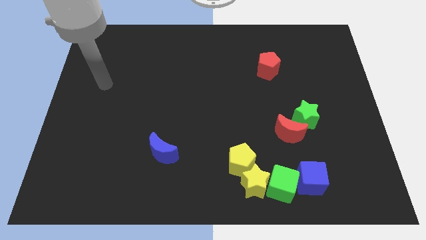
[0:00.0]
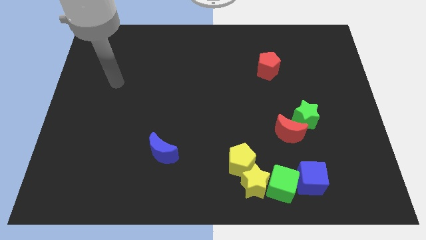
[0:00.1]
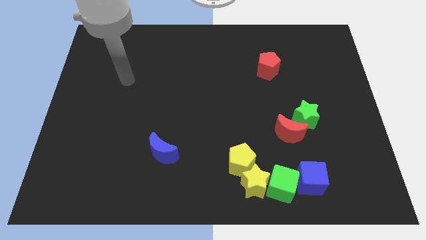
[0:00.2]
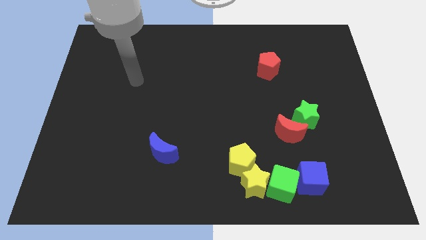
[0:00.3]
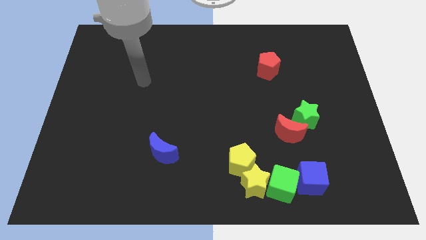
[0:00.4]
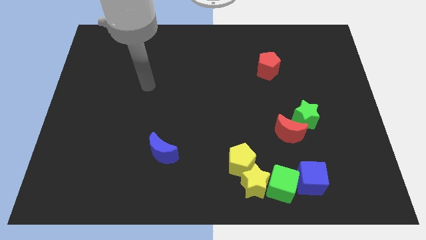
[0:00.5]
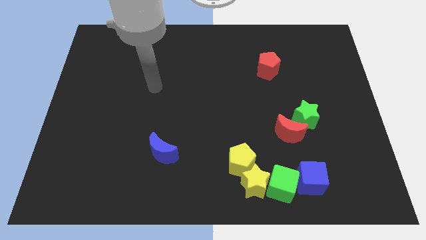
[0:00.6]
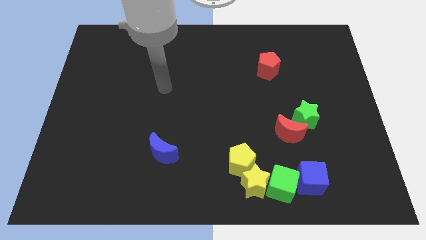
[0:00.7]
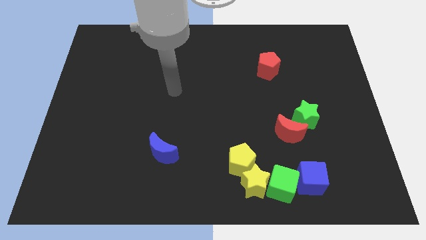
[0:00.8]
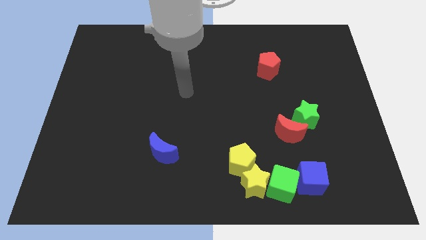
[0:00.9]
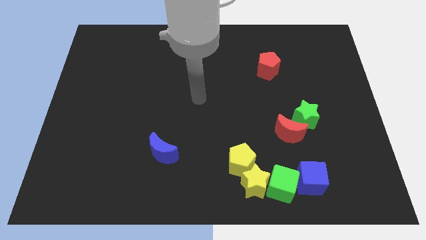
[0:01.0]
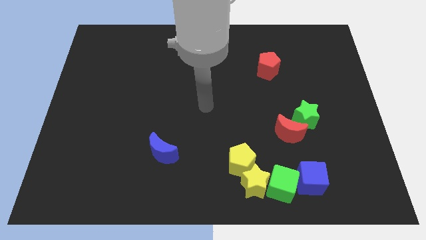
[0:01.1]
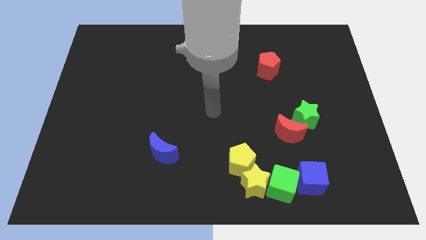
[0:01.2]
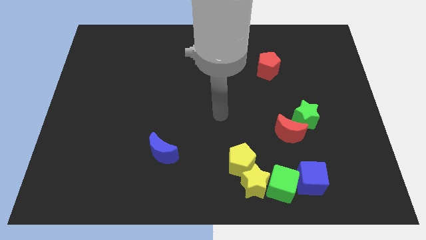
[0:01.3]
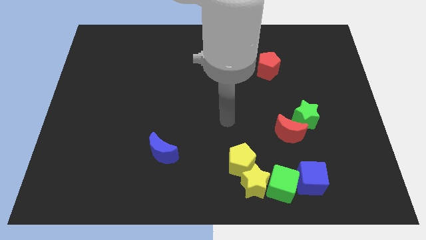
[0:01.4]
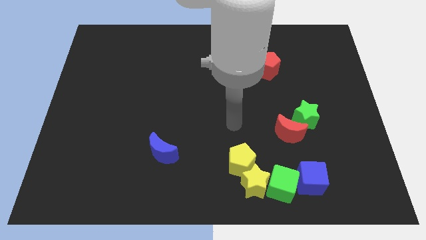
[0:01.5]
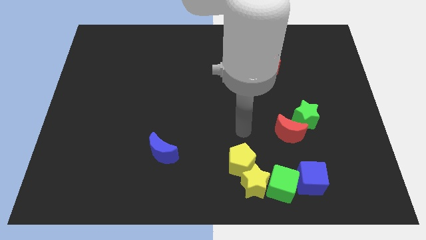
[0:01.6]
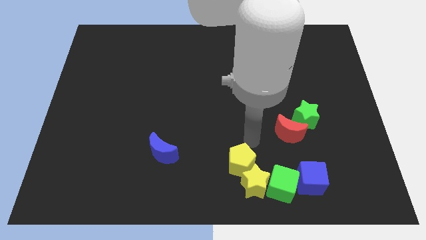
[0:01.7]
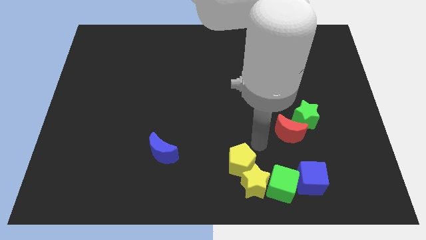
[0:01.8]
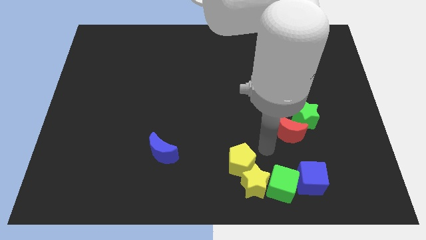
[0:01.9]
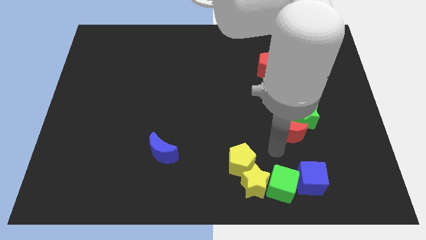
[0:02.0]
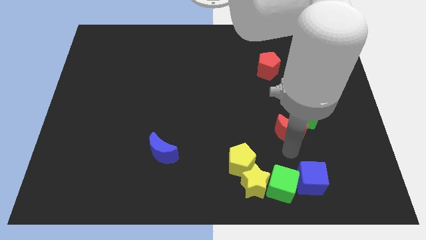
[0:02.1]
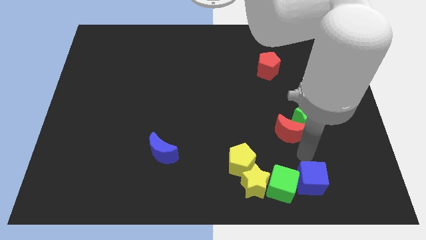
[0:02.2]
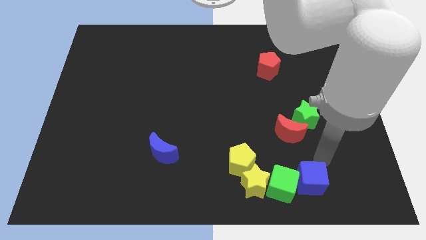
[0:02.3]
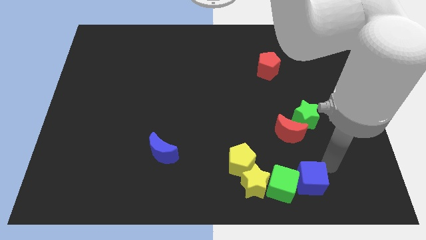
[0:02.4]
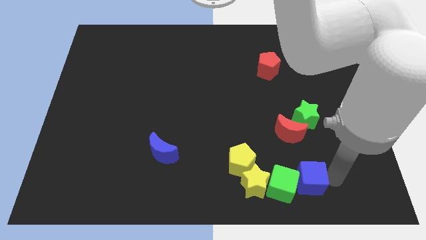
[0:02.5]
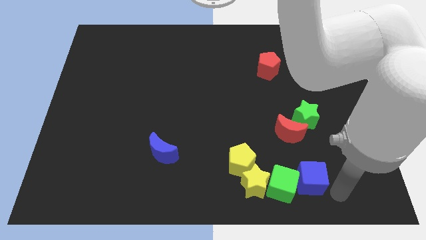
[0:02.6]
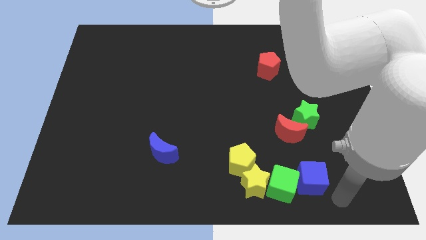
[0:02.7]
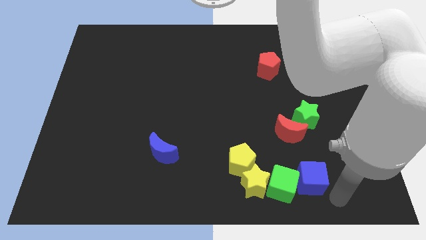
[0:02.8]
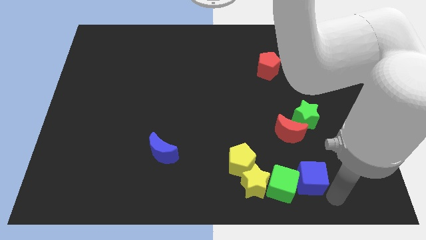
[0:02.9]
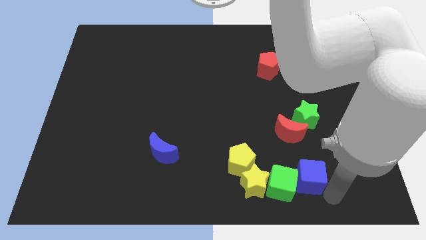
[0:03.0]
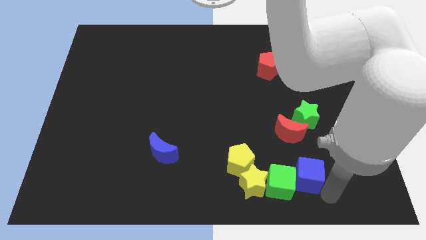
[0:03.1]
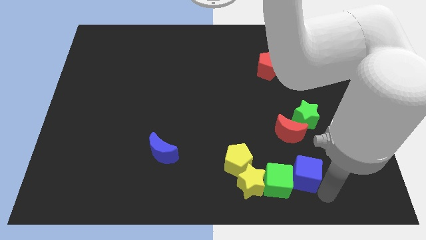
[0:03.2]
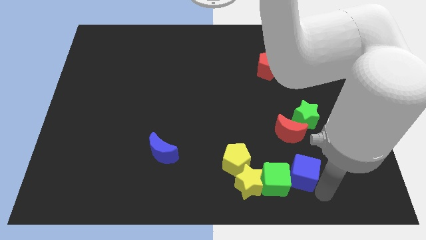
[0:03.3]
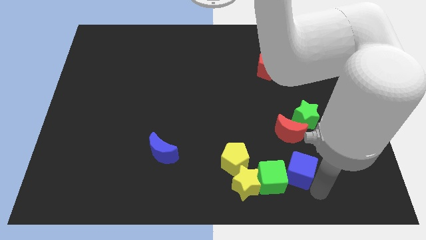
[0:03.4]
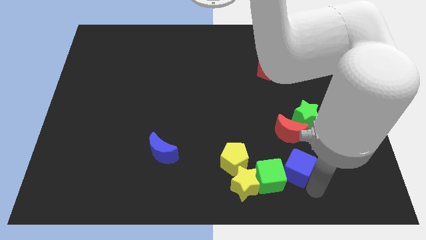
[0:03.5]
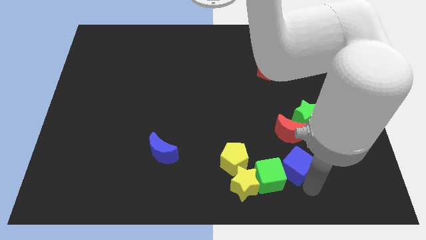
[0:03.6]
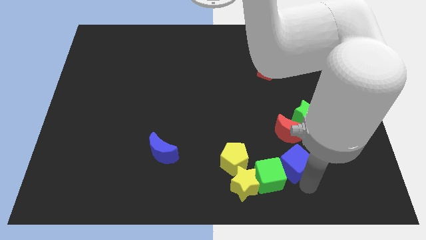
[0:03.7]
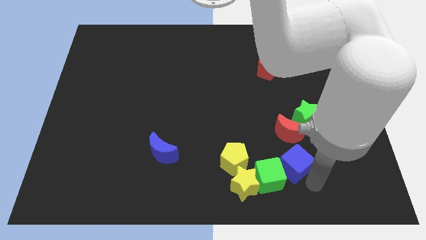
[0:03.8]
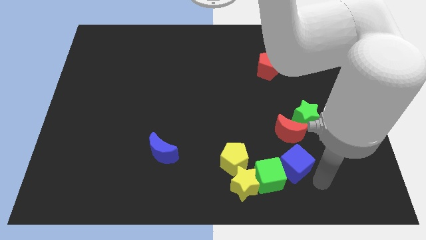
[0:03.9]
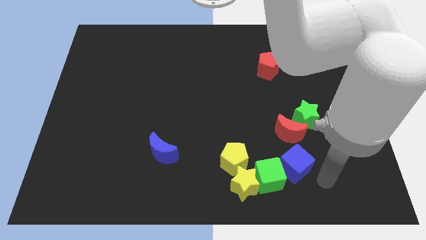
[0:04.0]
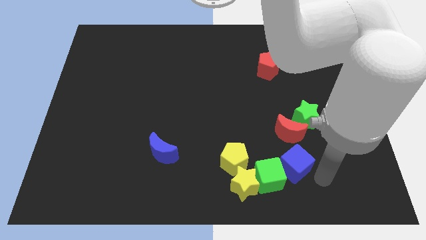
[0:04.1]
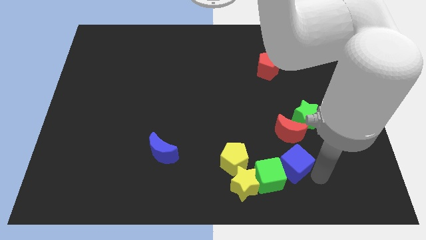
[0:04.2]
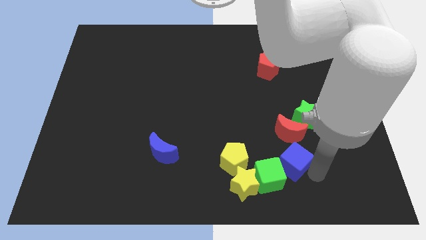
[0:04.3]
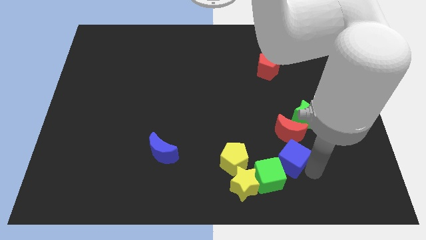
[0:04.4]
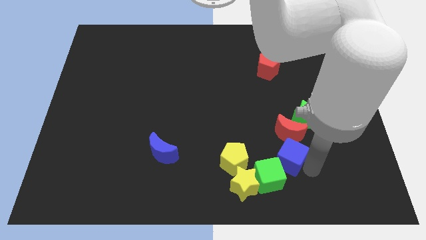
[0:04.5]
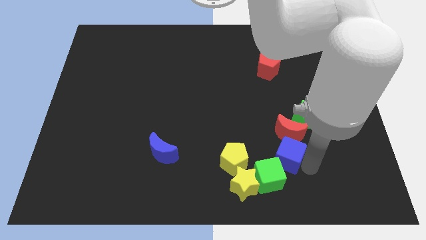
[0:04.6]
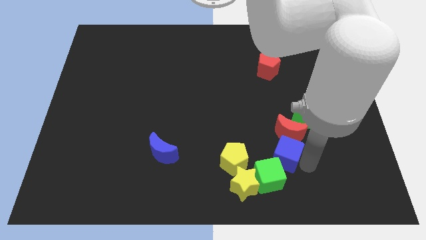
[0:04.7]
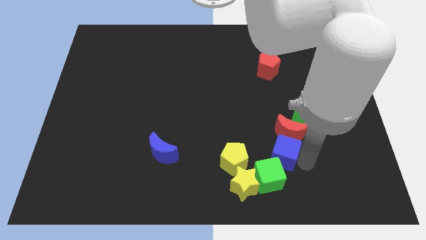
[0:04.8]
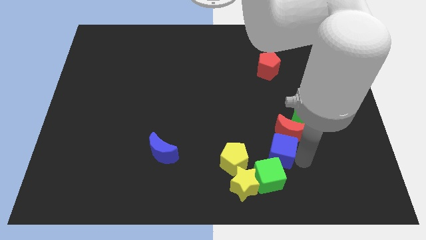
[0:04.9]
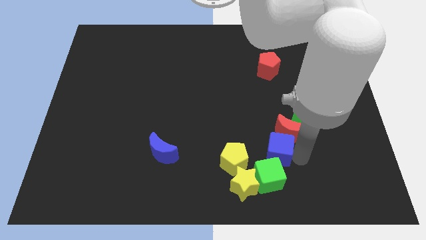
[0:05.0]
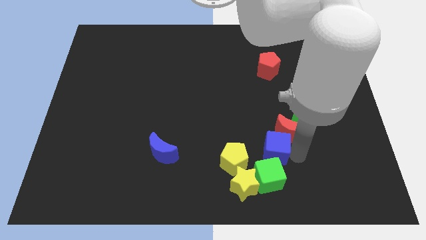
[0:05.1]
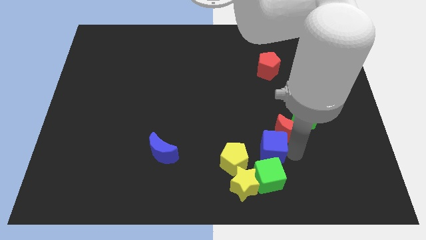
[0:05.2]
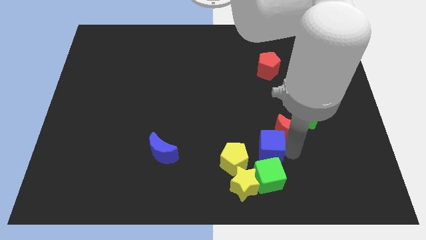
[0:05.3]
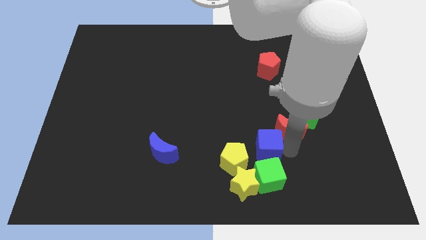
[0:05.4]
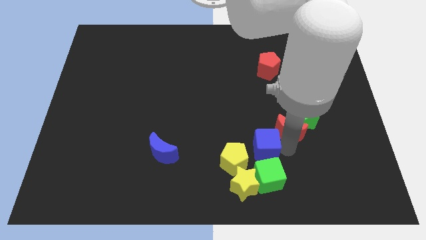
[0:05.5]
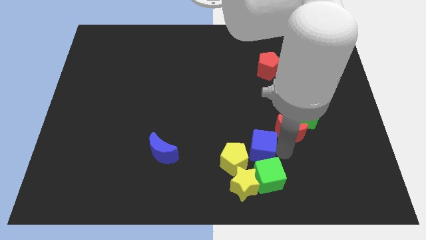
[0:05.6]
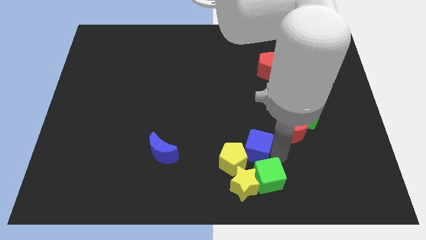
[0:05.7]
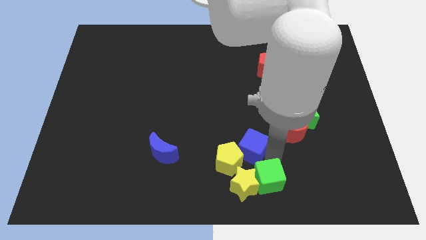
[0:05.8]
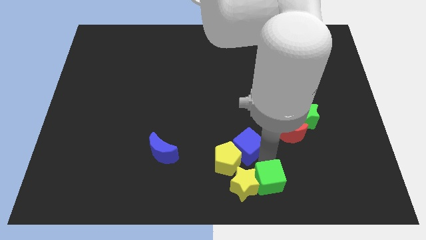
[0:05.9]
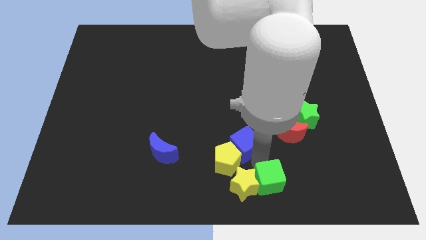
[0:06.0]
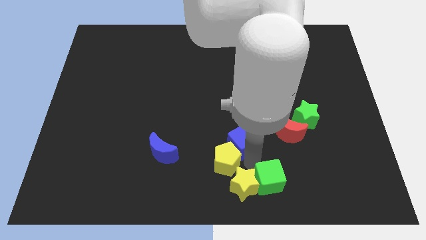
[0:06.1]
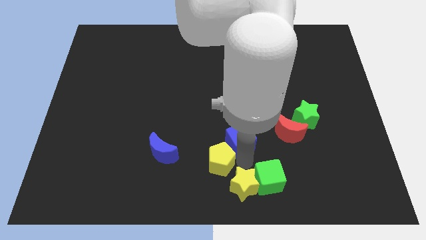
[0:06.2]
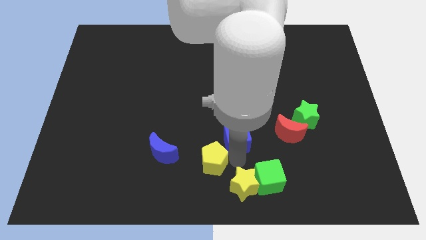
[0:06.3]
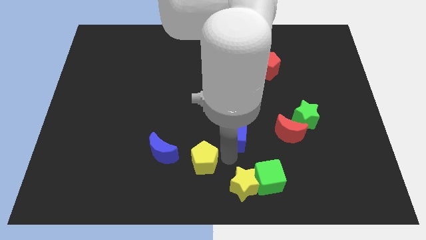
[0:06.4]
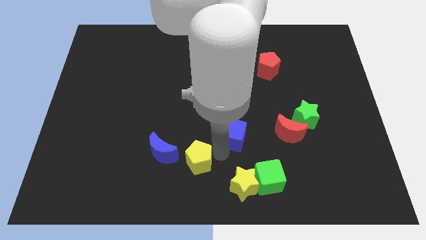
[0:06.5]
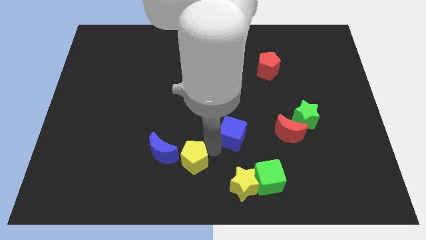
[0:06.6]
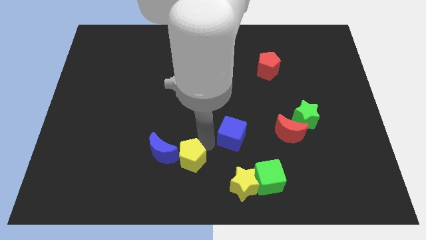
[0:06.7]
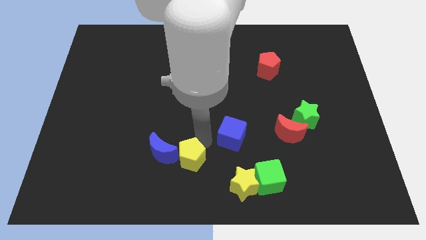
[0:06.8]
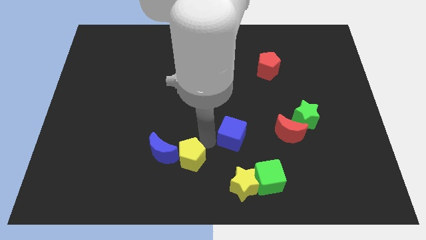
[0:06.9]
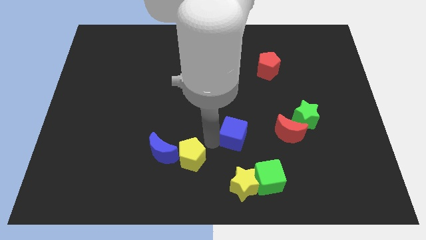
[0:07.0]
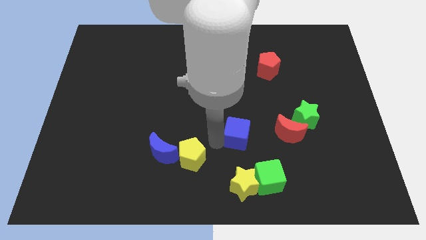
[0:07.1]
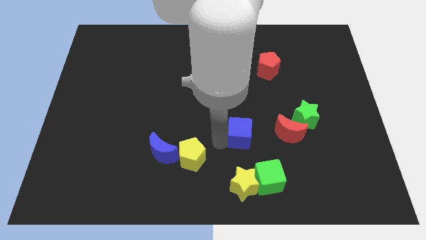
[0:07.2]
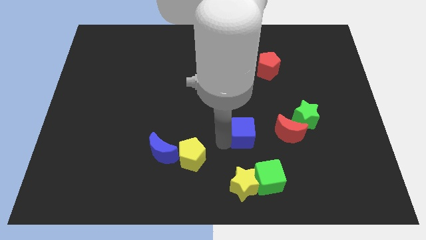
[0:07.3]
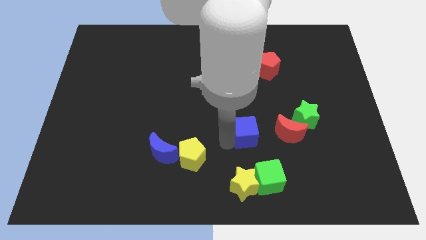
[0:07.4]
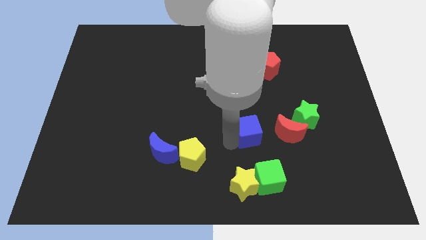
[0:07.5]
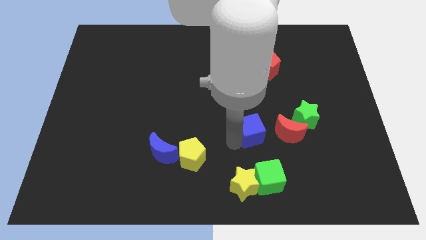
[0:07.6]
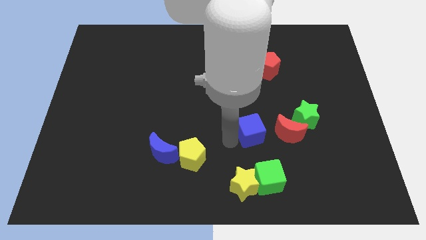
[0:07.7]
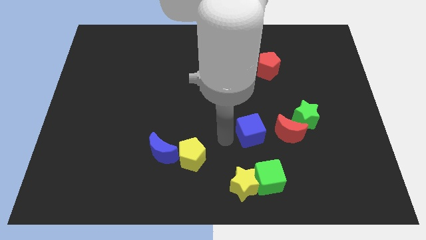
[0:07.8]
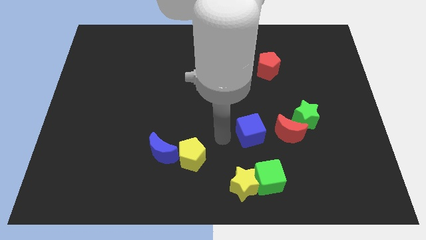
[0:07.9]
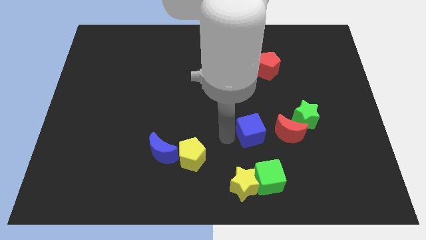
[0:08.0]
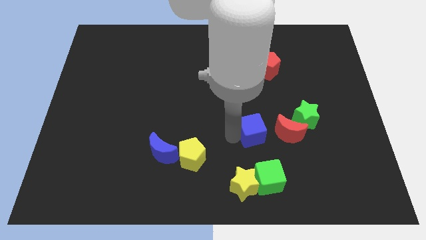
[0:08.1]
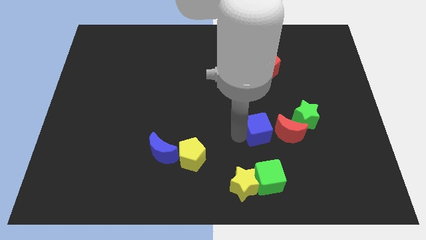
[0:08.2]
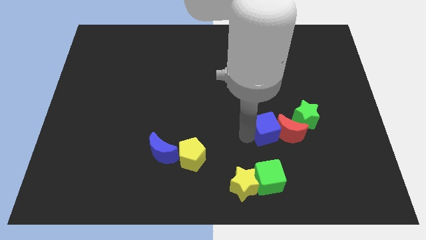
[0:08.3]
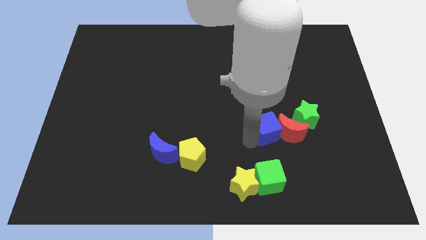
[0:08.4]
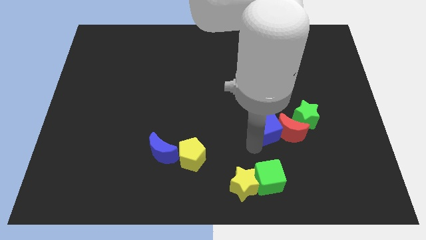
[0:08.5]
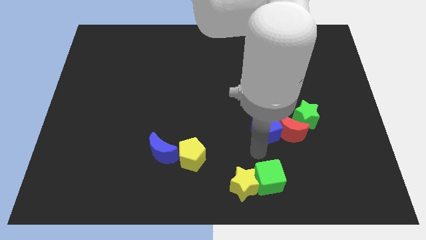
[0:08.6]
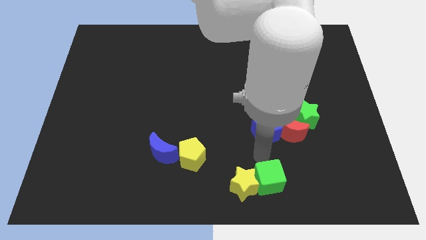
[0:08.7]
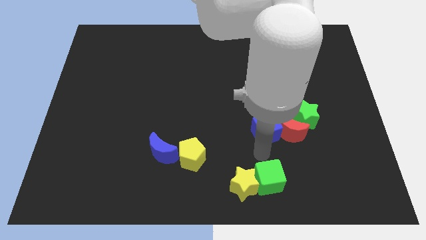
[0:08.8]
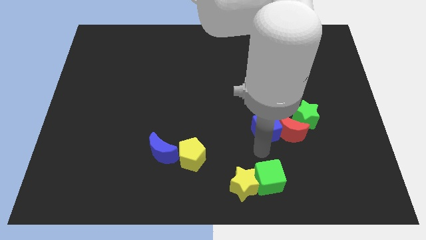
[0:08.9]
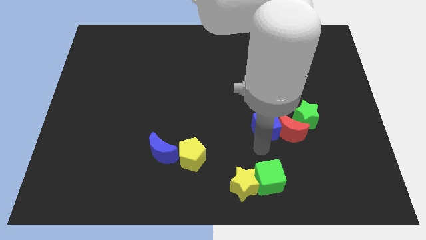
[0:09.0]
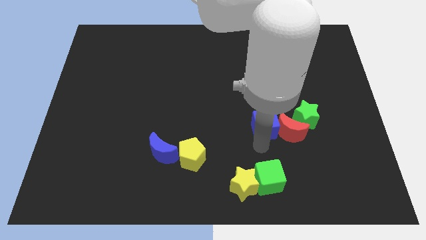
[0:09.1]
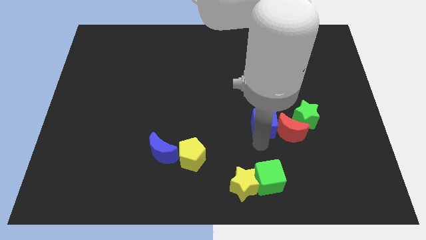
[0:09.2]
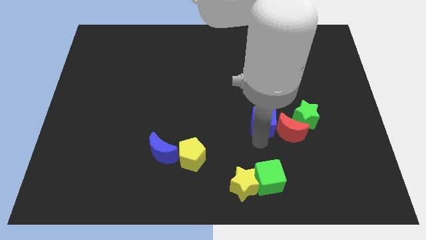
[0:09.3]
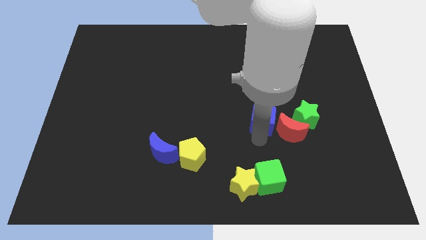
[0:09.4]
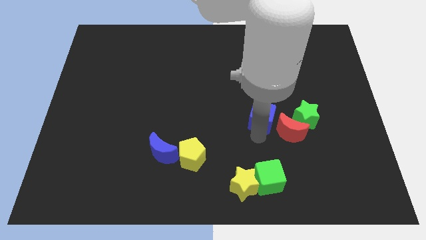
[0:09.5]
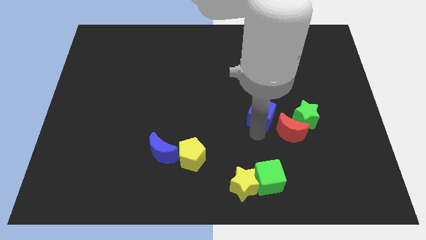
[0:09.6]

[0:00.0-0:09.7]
slide the blue cube to the bottom of the red pentagon
